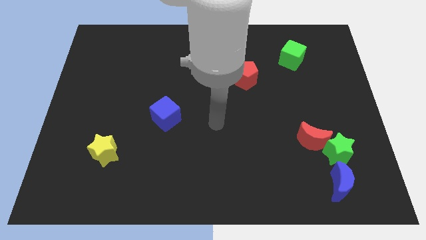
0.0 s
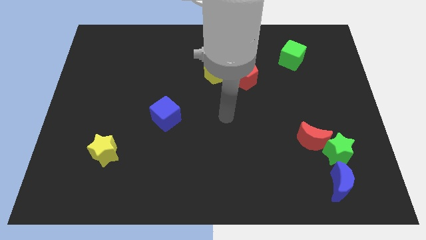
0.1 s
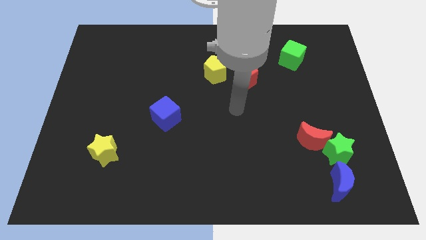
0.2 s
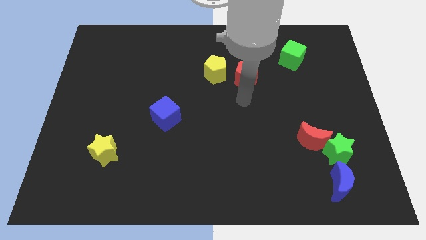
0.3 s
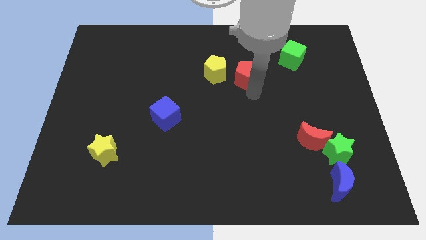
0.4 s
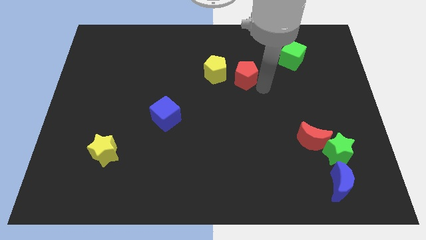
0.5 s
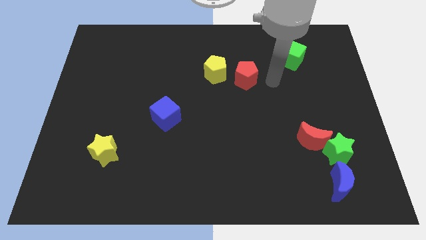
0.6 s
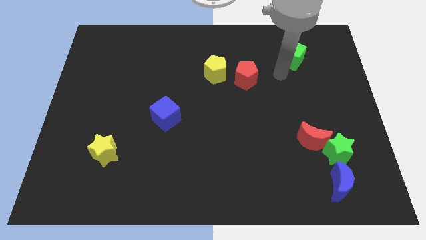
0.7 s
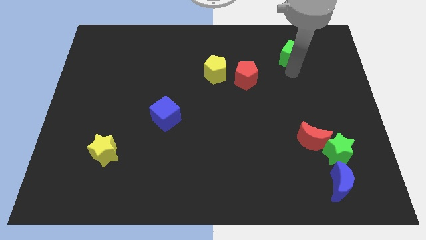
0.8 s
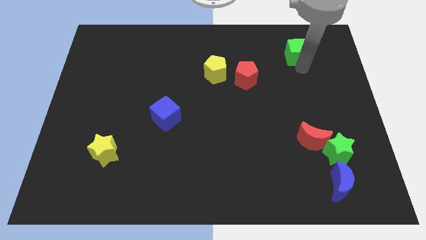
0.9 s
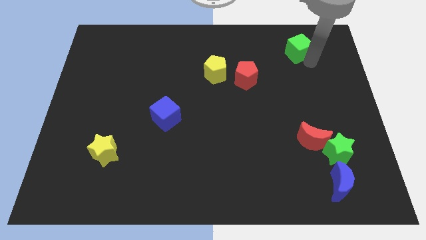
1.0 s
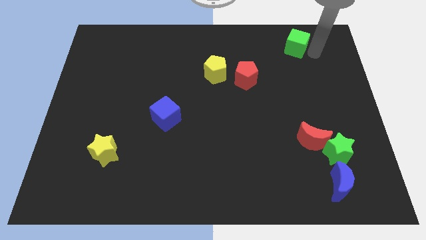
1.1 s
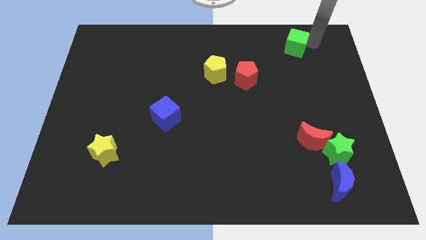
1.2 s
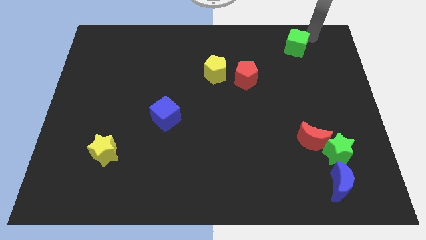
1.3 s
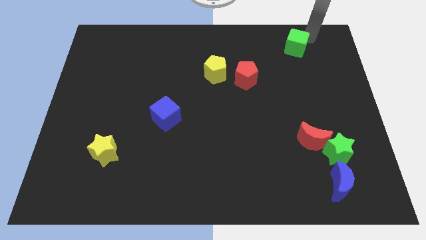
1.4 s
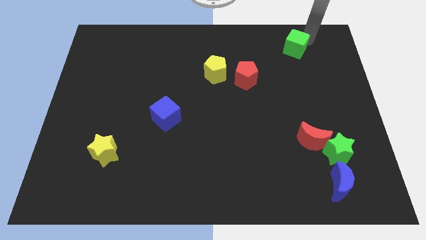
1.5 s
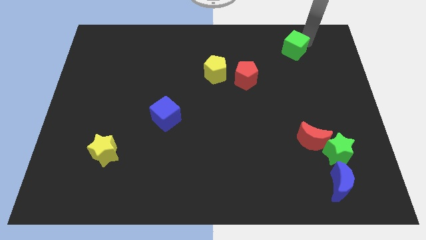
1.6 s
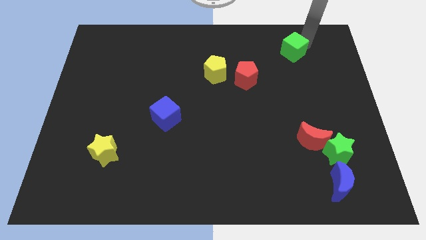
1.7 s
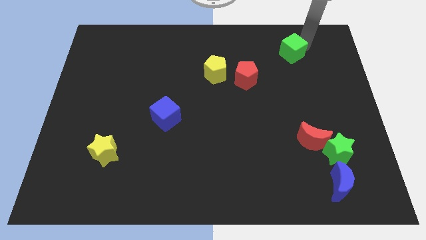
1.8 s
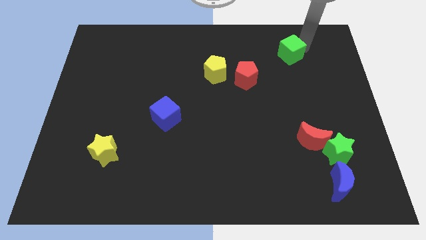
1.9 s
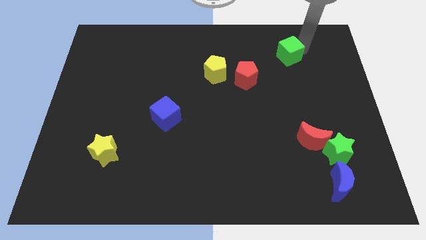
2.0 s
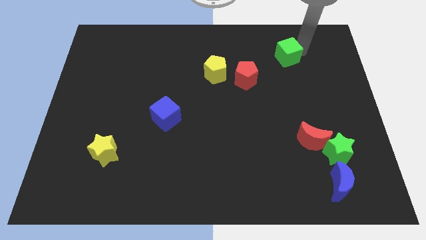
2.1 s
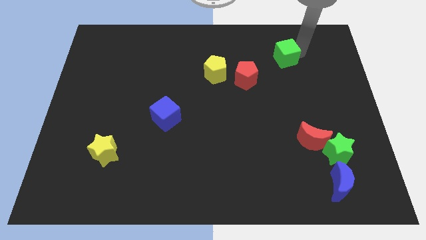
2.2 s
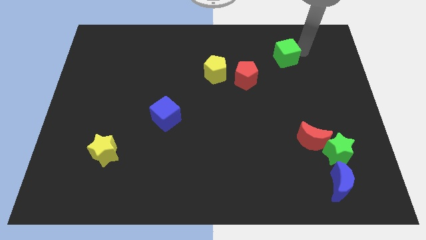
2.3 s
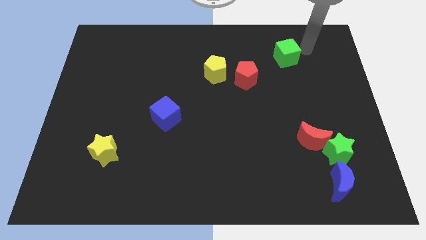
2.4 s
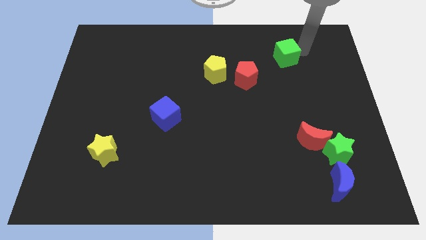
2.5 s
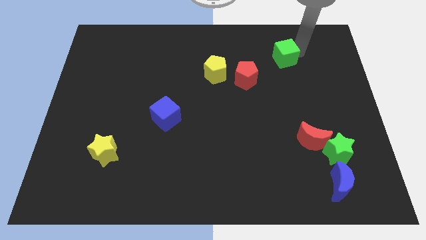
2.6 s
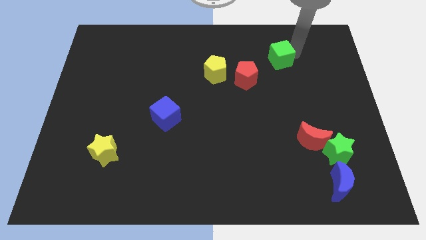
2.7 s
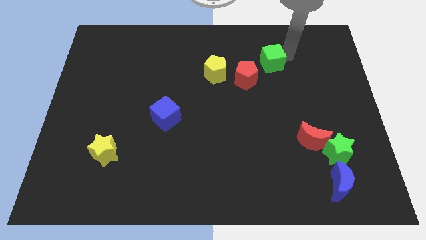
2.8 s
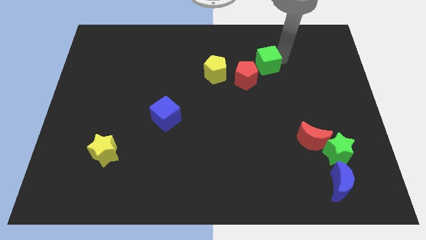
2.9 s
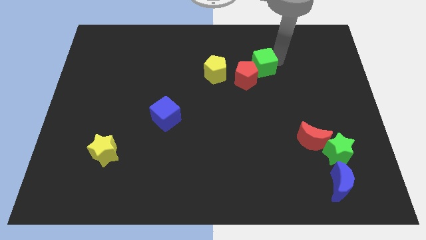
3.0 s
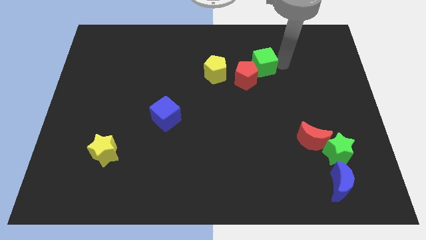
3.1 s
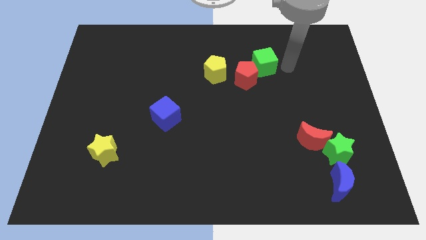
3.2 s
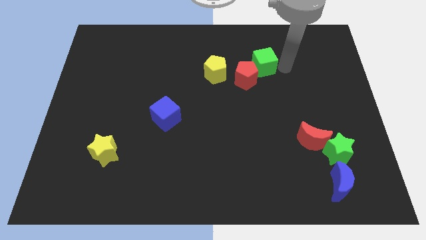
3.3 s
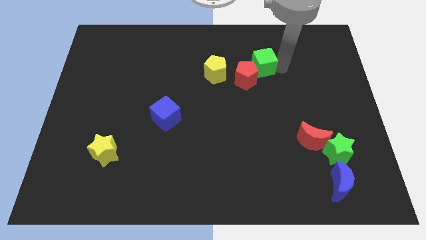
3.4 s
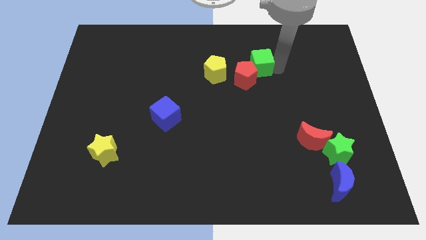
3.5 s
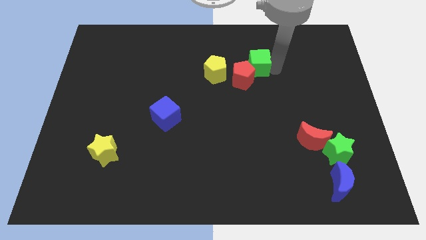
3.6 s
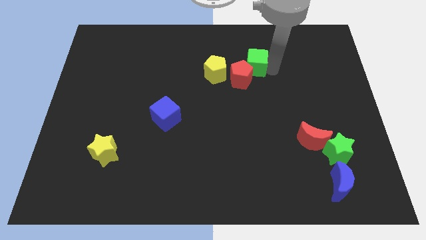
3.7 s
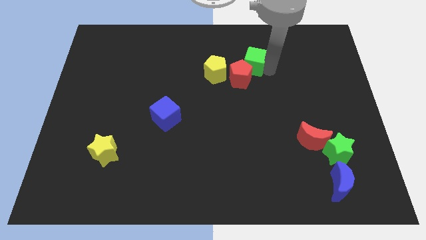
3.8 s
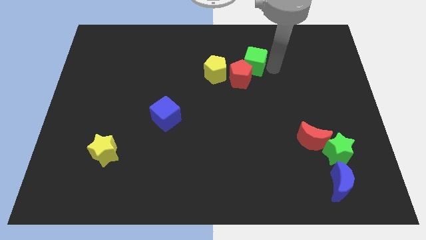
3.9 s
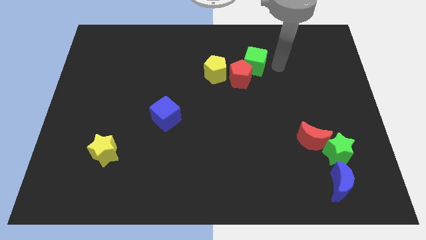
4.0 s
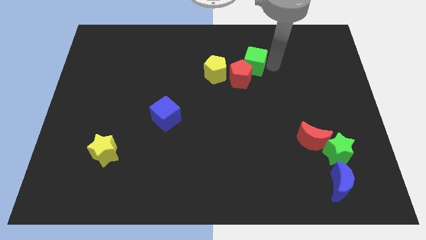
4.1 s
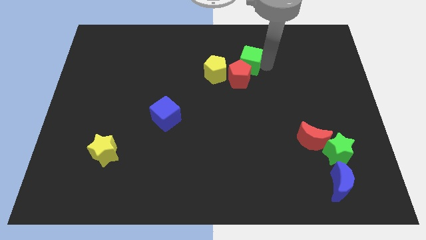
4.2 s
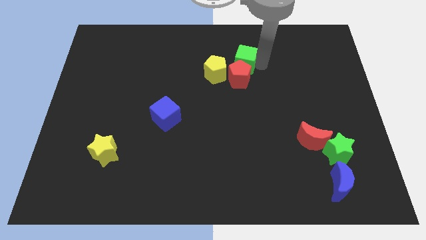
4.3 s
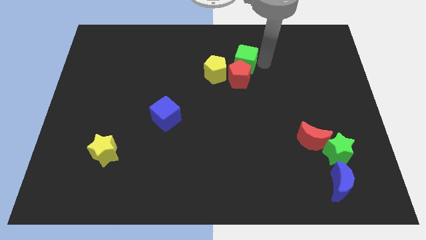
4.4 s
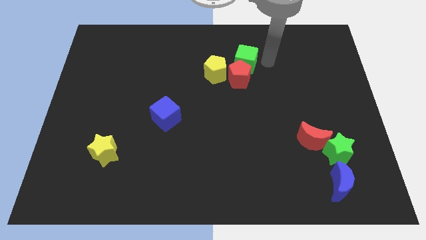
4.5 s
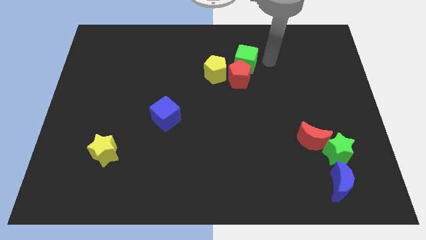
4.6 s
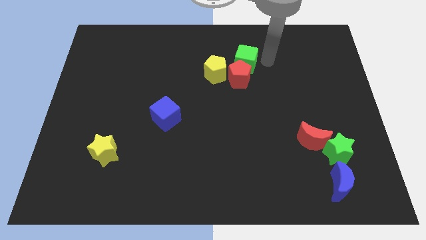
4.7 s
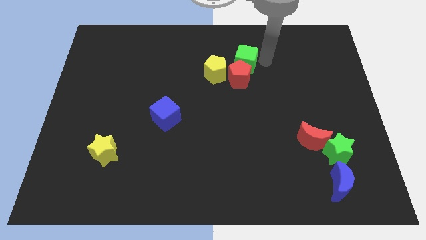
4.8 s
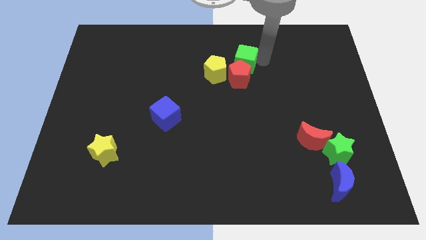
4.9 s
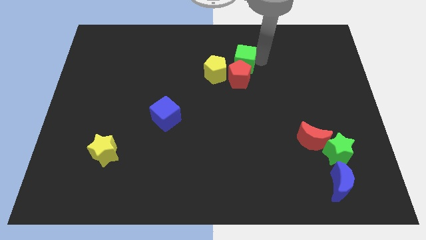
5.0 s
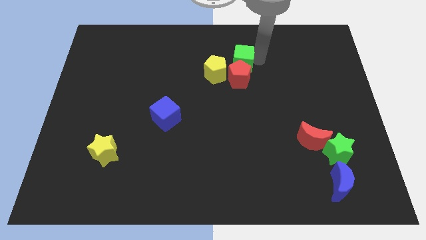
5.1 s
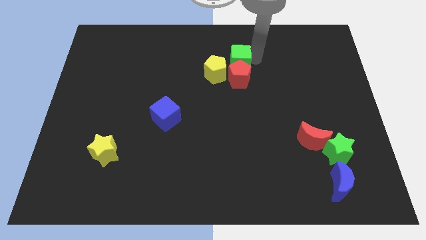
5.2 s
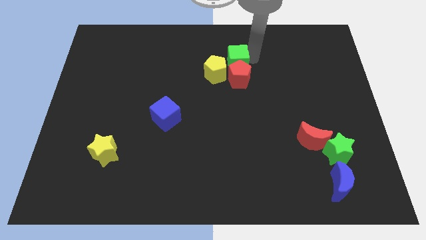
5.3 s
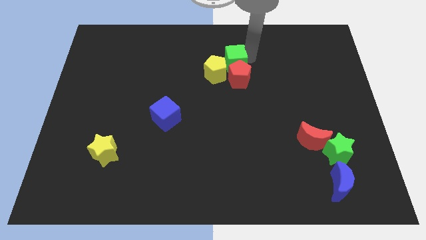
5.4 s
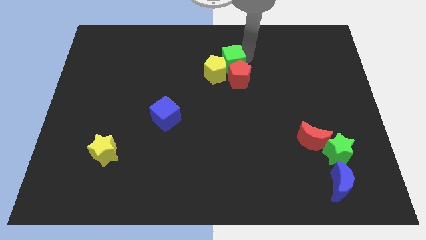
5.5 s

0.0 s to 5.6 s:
slide the green cube towards the yellow pentagon
